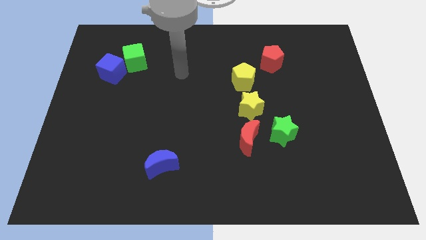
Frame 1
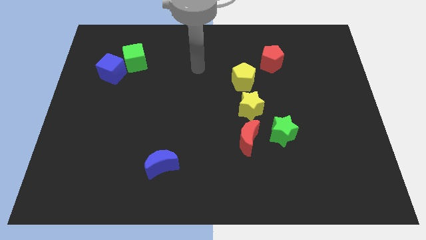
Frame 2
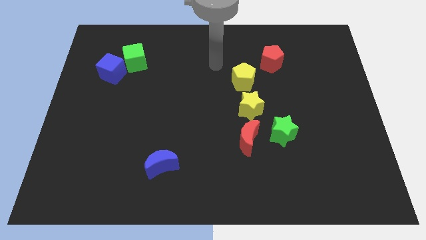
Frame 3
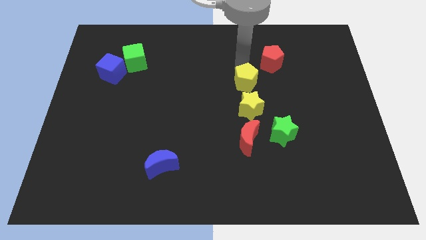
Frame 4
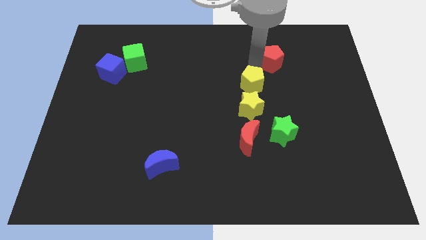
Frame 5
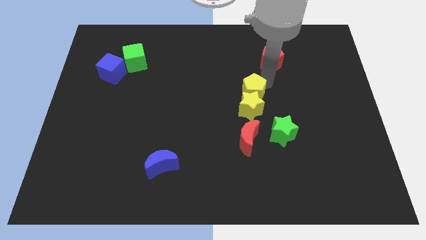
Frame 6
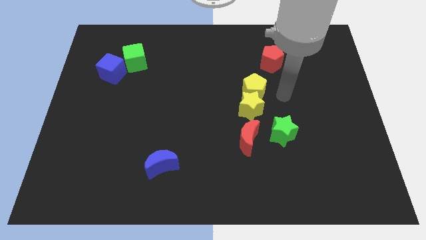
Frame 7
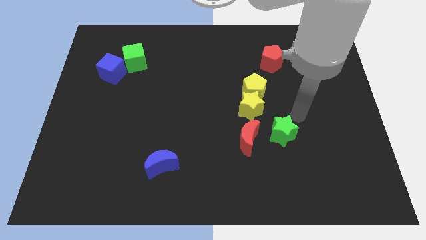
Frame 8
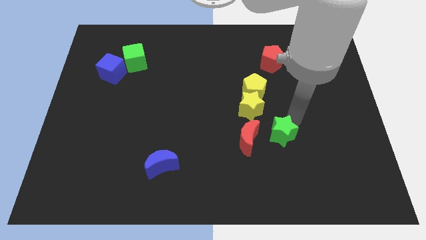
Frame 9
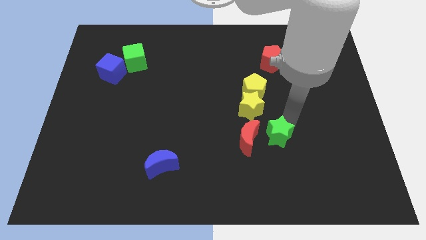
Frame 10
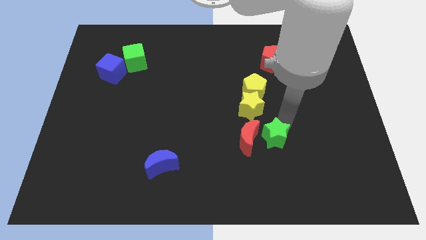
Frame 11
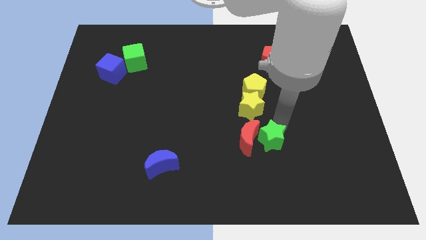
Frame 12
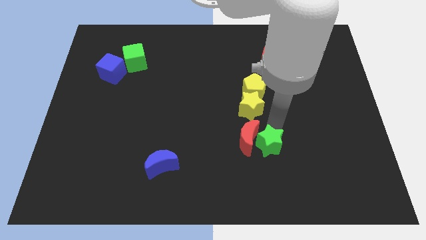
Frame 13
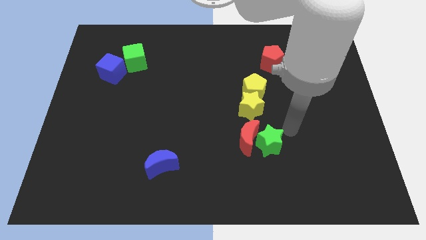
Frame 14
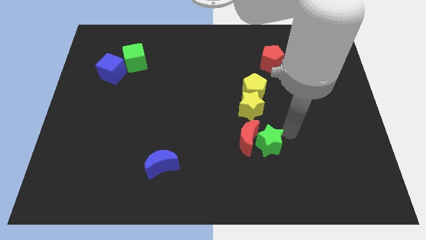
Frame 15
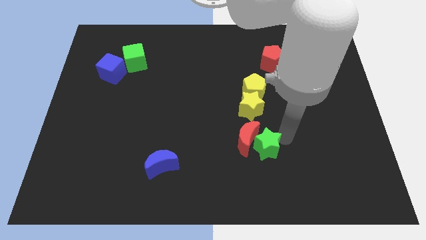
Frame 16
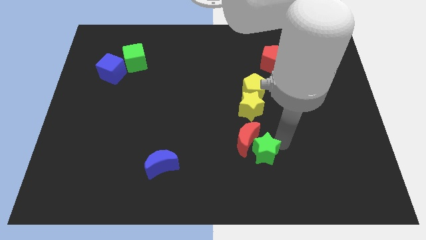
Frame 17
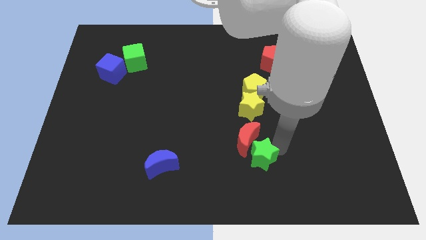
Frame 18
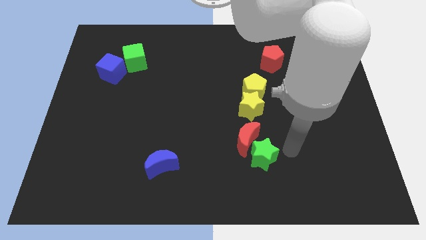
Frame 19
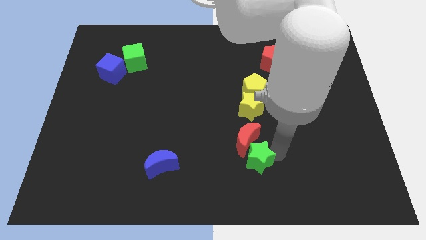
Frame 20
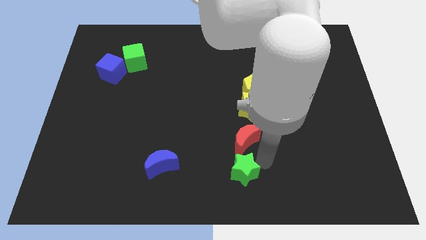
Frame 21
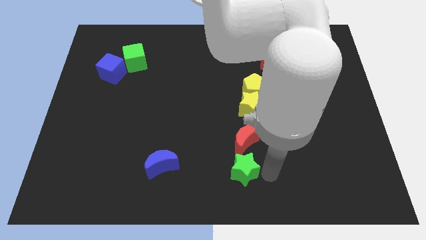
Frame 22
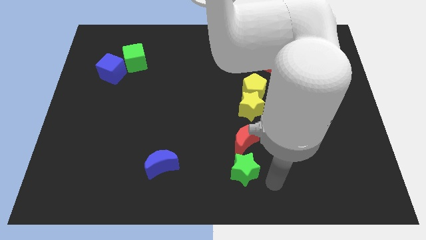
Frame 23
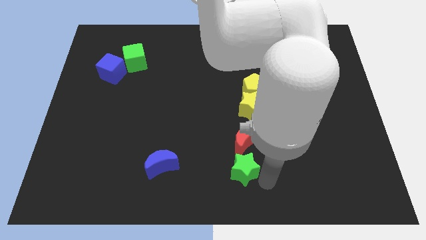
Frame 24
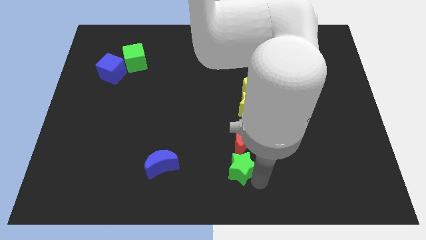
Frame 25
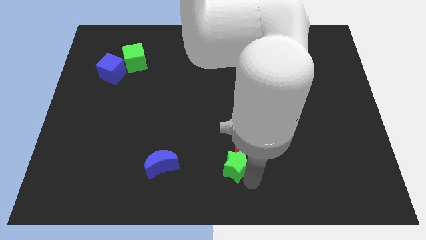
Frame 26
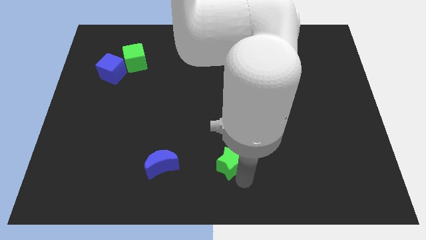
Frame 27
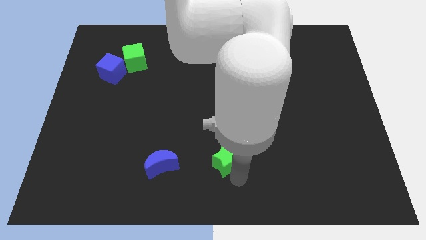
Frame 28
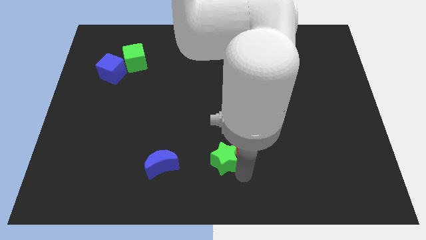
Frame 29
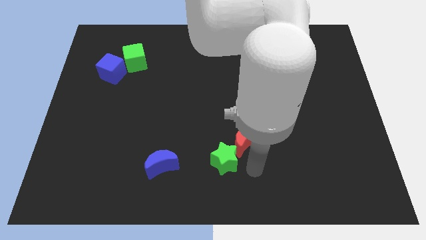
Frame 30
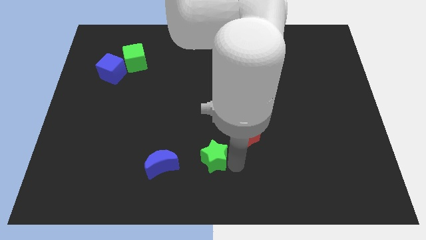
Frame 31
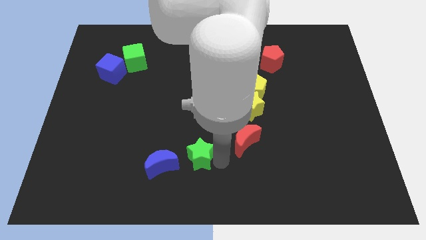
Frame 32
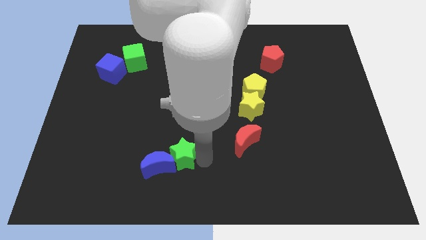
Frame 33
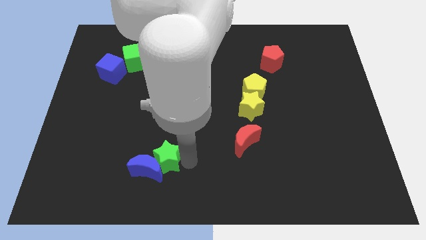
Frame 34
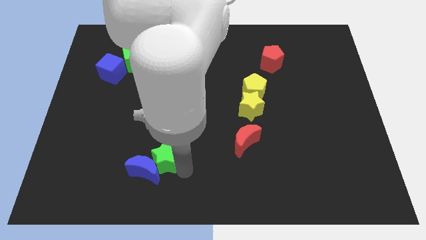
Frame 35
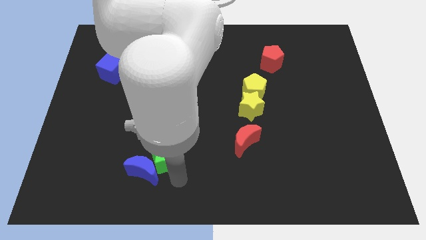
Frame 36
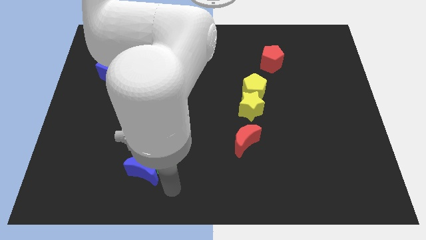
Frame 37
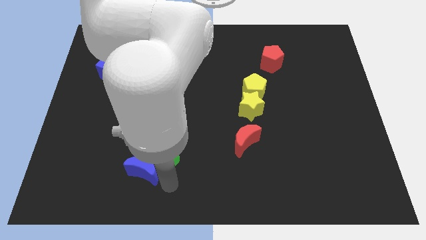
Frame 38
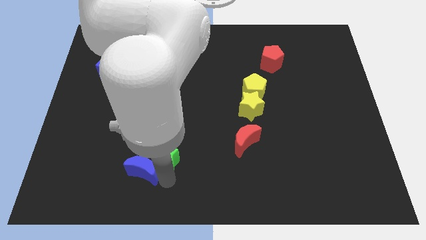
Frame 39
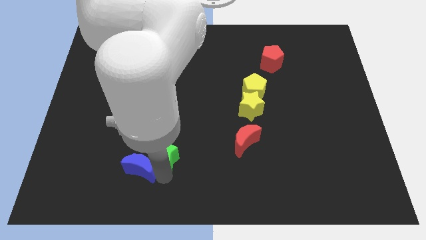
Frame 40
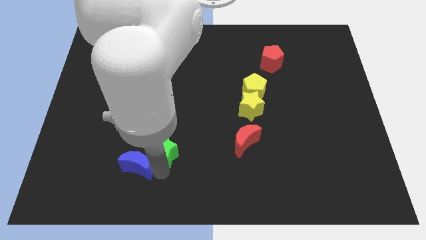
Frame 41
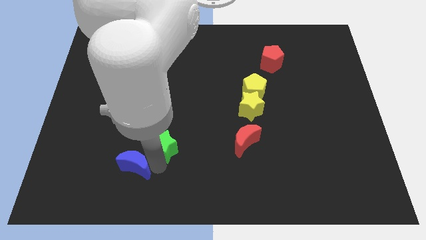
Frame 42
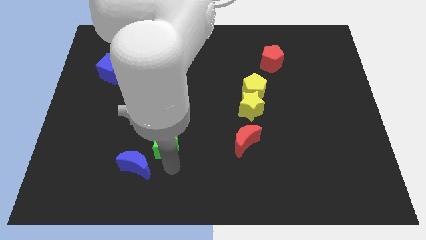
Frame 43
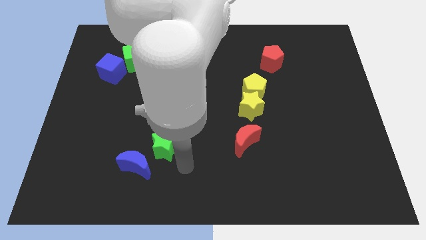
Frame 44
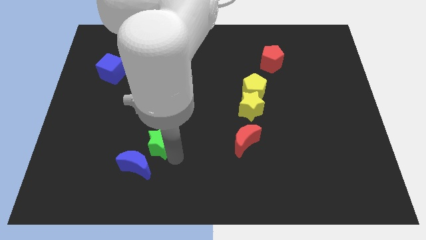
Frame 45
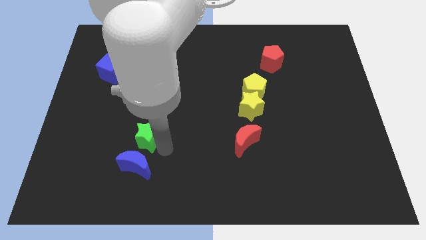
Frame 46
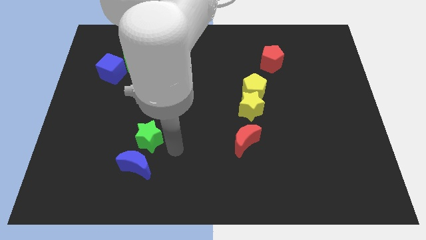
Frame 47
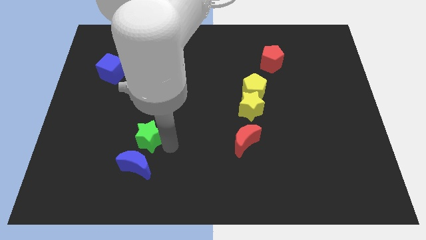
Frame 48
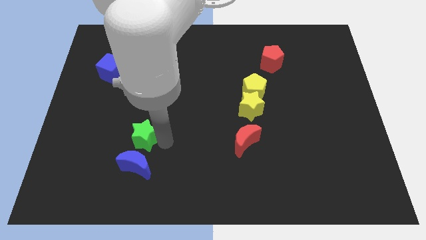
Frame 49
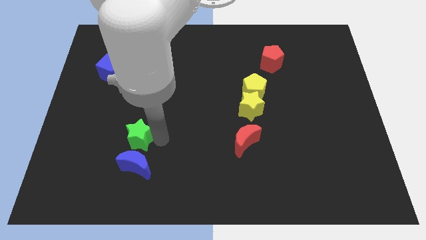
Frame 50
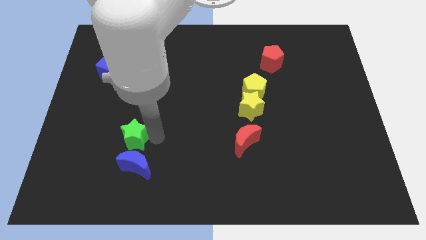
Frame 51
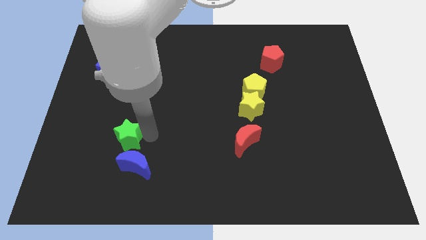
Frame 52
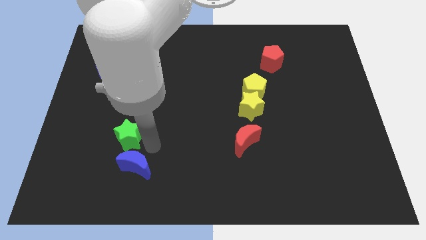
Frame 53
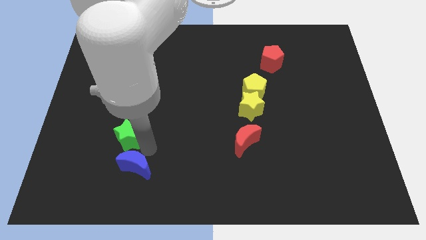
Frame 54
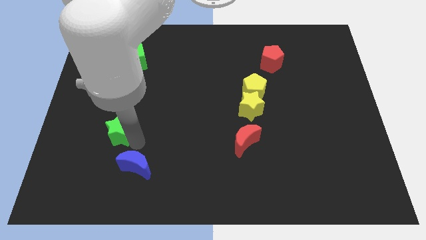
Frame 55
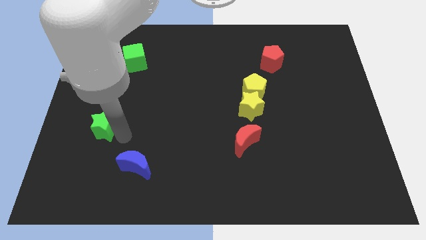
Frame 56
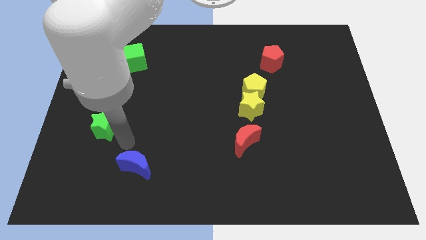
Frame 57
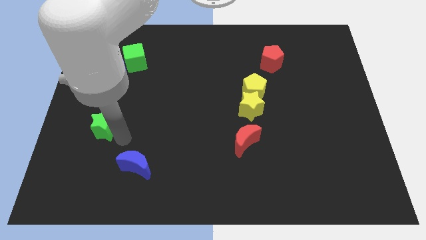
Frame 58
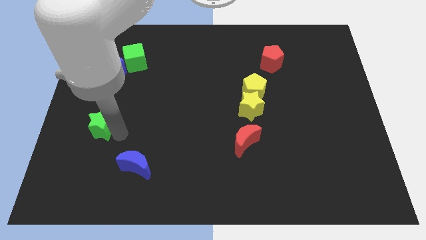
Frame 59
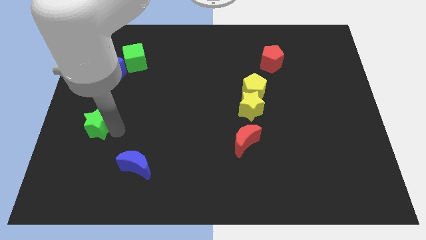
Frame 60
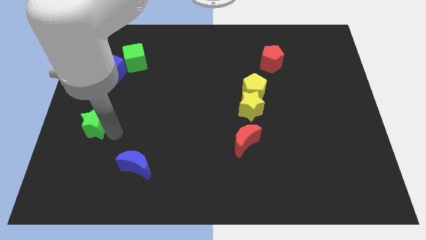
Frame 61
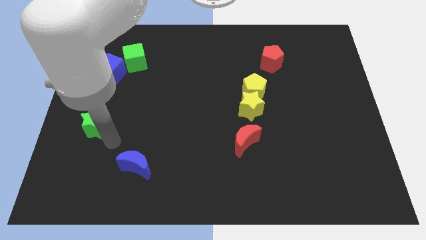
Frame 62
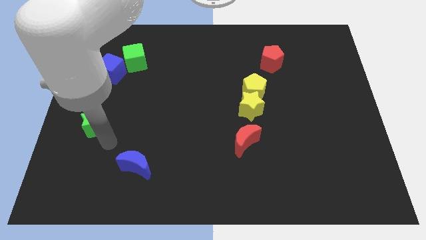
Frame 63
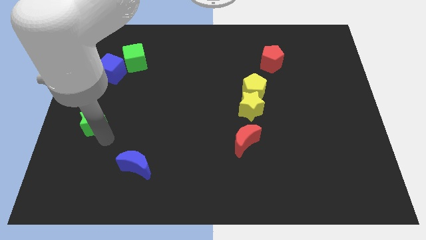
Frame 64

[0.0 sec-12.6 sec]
put the green star to the left side

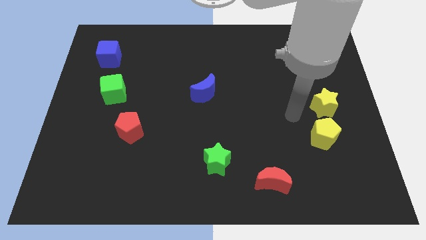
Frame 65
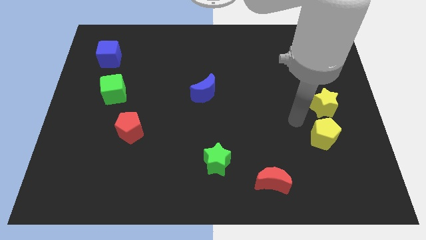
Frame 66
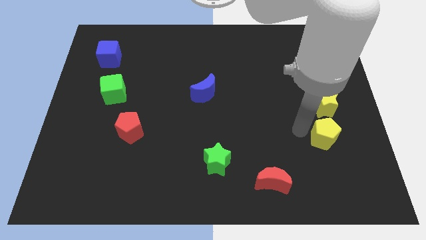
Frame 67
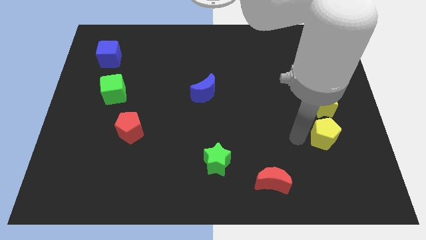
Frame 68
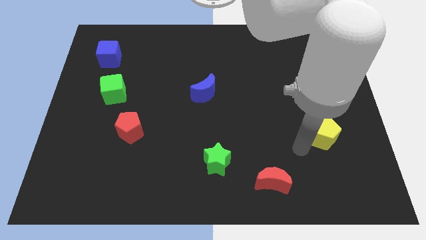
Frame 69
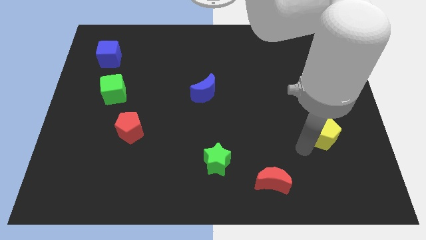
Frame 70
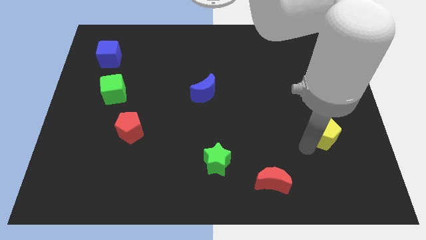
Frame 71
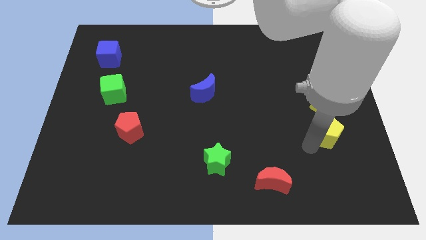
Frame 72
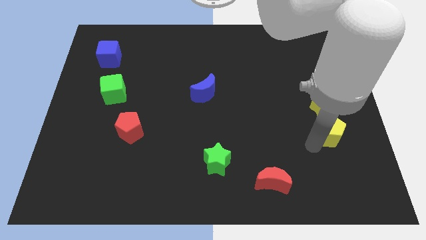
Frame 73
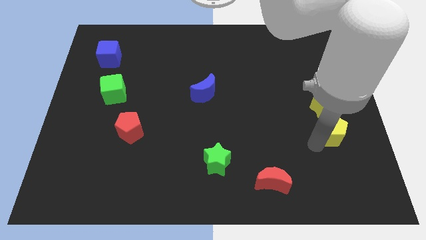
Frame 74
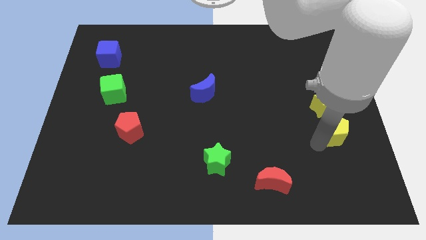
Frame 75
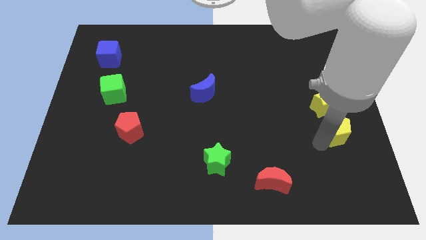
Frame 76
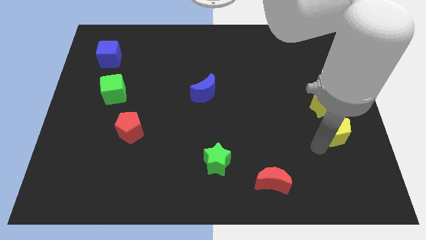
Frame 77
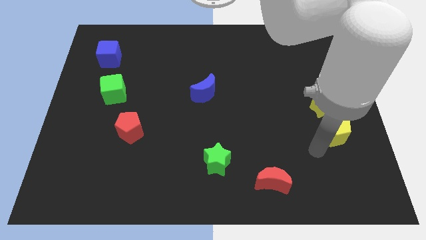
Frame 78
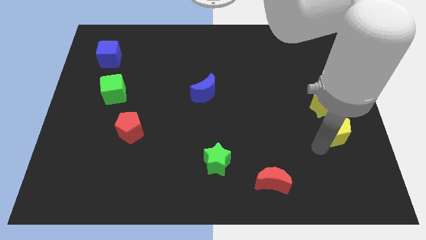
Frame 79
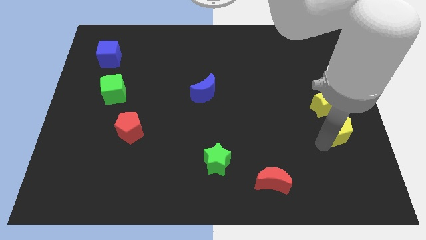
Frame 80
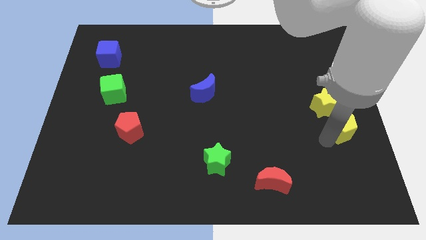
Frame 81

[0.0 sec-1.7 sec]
slide the yellow pentagon to the right side
